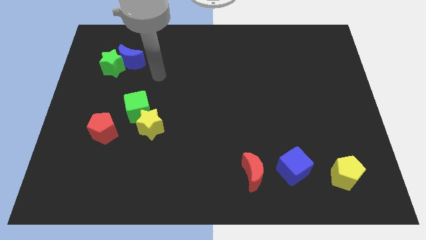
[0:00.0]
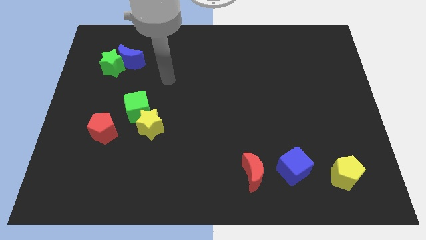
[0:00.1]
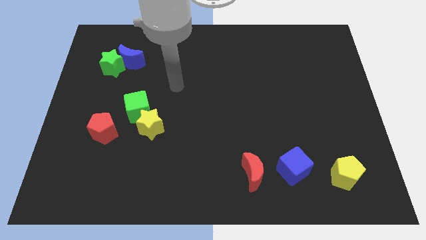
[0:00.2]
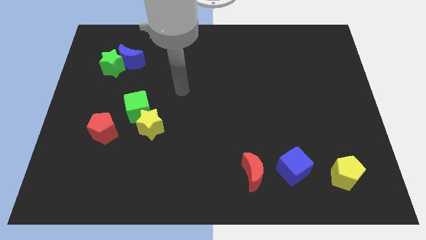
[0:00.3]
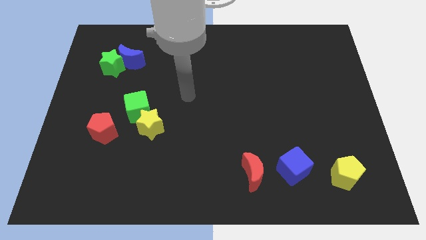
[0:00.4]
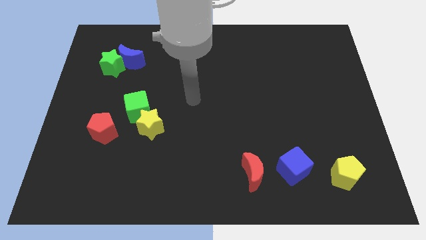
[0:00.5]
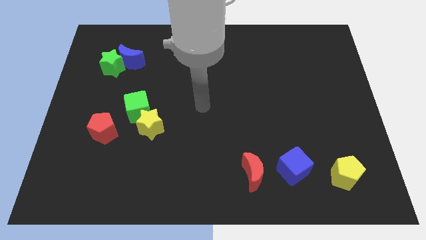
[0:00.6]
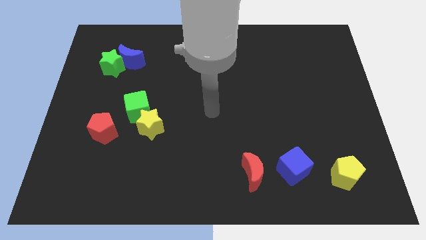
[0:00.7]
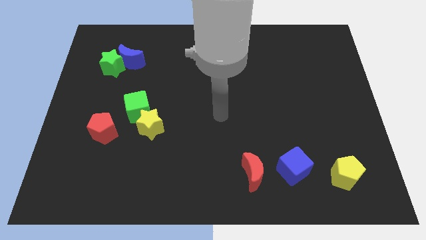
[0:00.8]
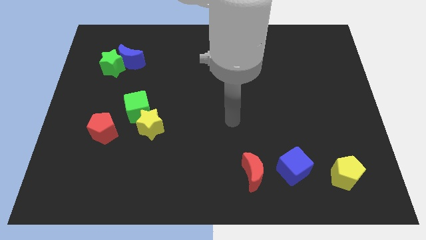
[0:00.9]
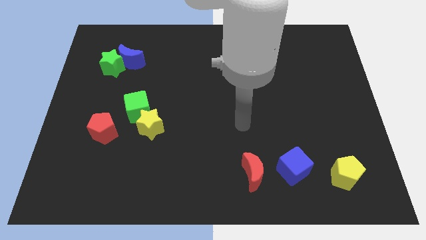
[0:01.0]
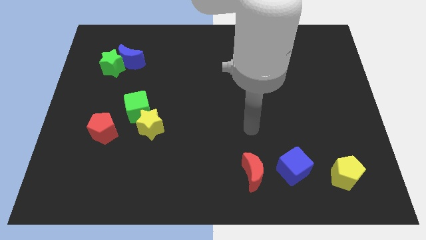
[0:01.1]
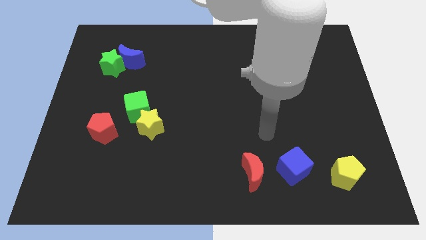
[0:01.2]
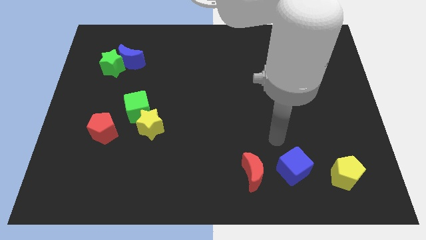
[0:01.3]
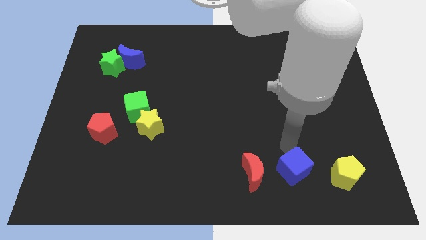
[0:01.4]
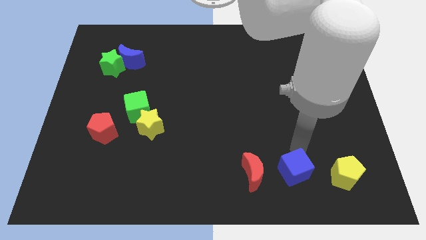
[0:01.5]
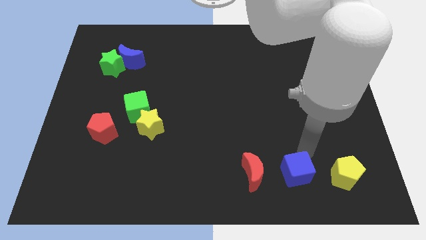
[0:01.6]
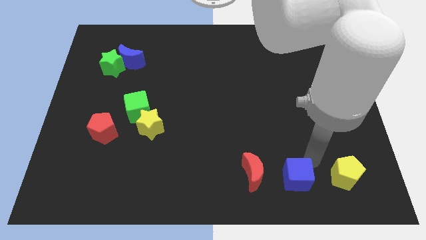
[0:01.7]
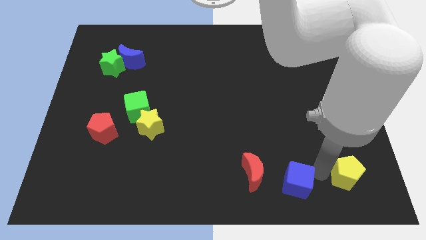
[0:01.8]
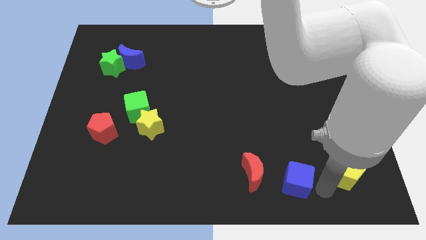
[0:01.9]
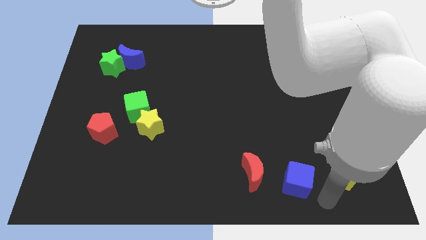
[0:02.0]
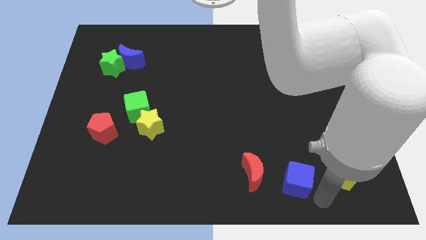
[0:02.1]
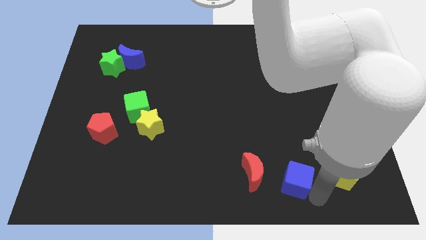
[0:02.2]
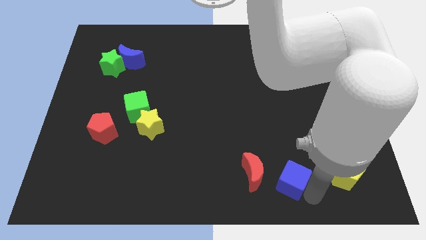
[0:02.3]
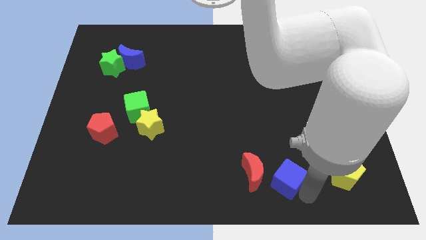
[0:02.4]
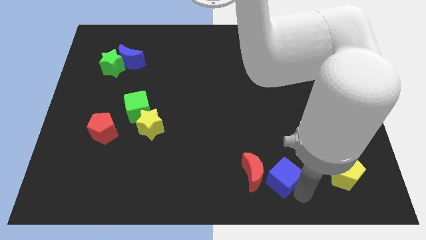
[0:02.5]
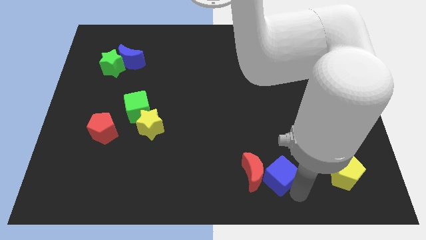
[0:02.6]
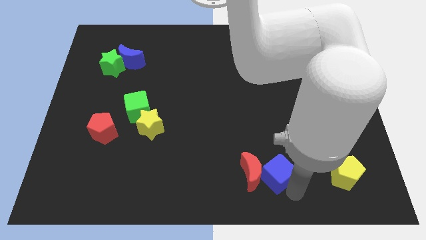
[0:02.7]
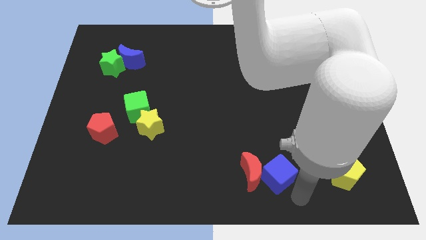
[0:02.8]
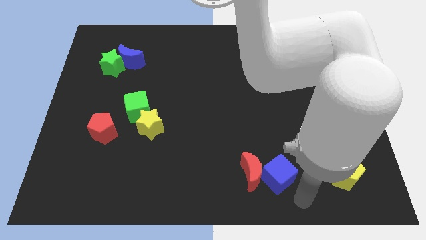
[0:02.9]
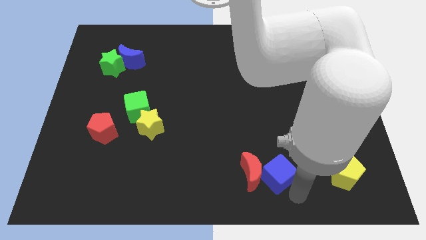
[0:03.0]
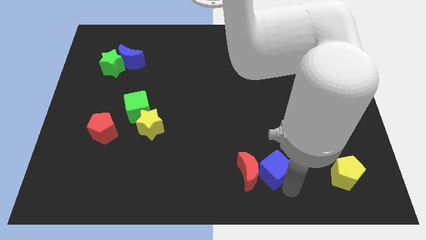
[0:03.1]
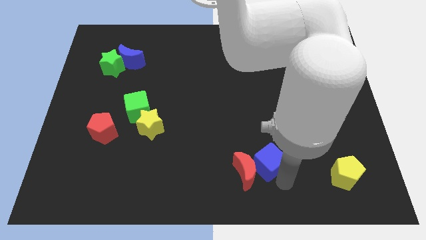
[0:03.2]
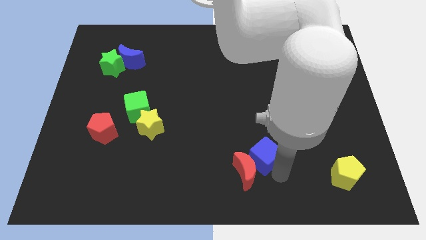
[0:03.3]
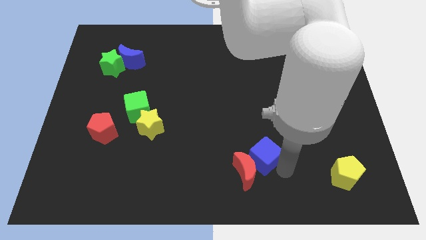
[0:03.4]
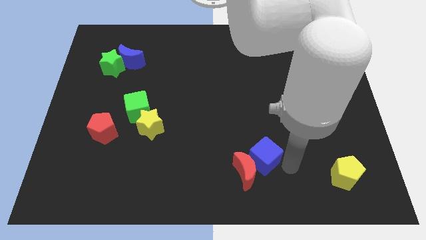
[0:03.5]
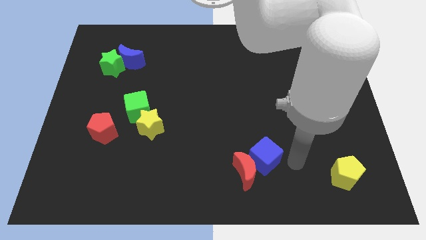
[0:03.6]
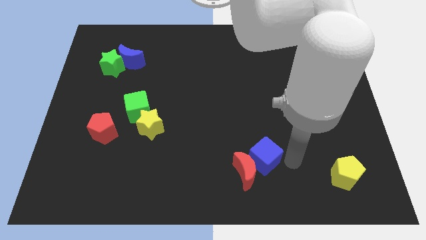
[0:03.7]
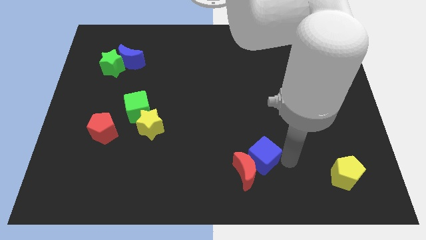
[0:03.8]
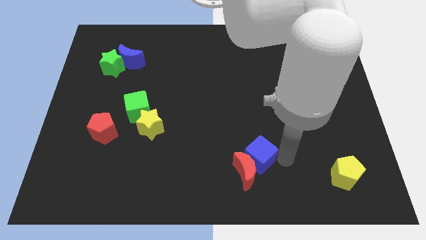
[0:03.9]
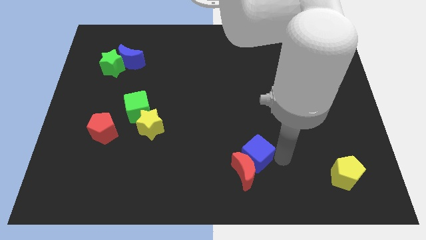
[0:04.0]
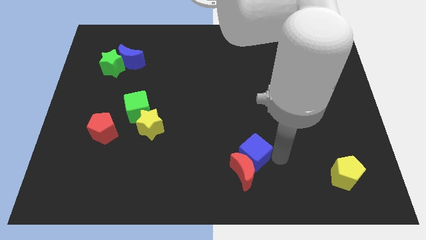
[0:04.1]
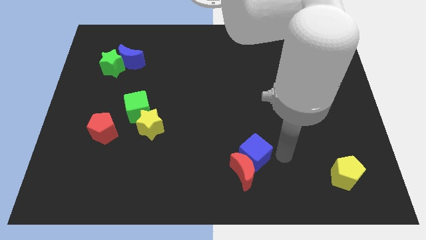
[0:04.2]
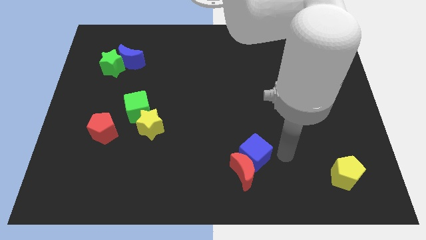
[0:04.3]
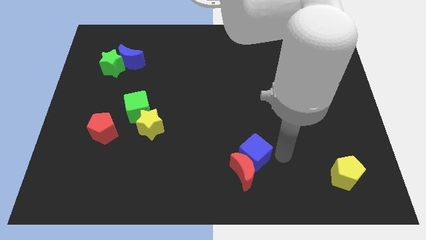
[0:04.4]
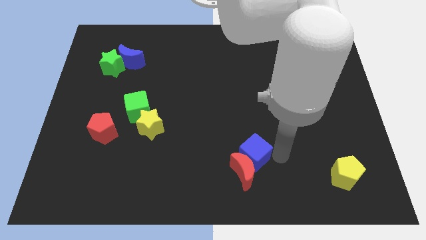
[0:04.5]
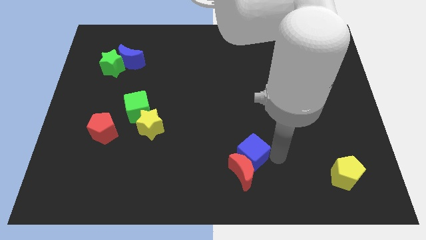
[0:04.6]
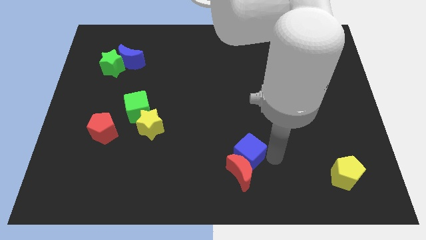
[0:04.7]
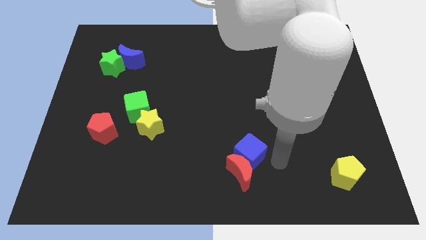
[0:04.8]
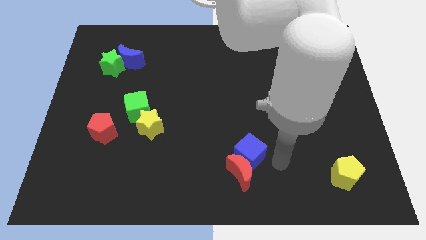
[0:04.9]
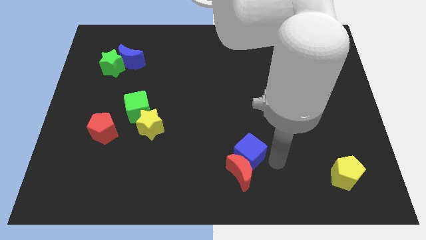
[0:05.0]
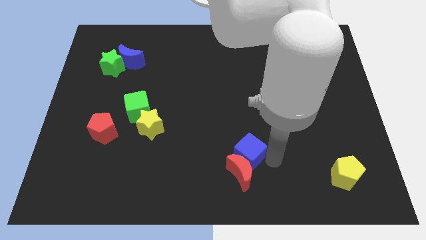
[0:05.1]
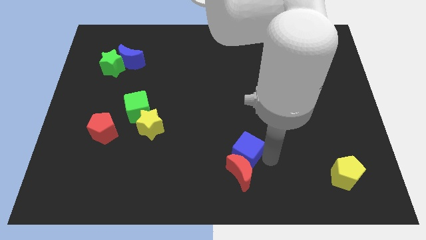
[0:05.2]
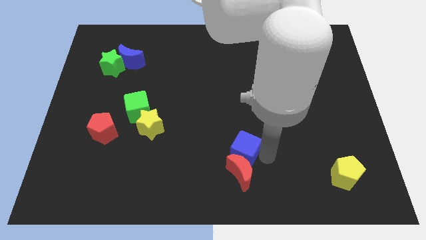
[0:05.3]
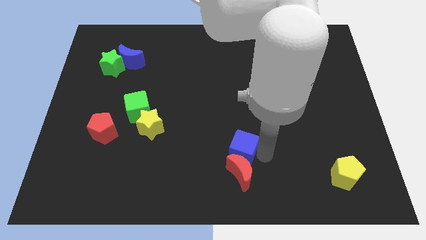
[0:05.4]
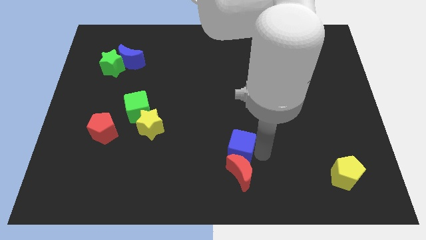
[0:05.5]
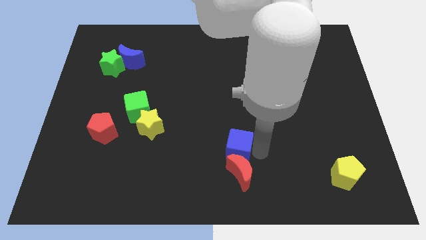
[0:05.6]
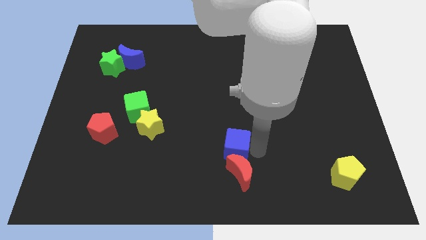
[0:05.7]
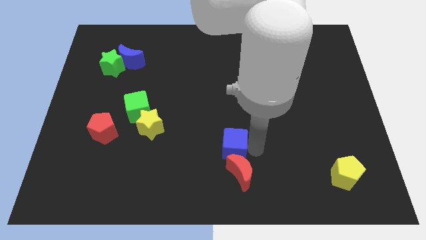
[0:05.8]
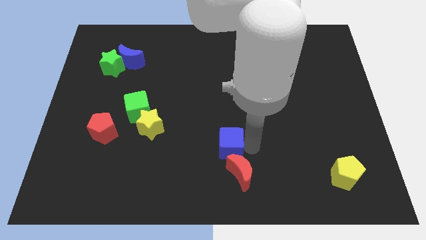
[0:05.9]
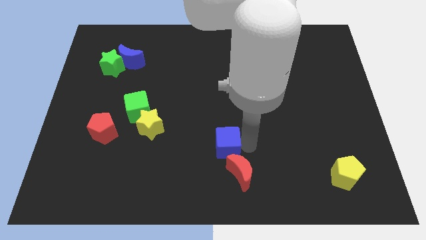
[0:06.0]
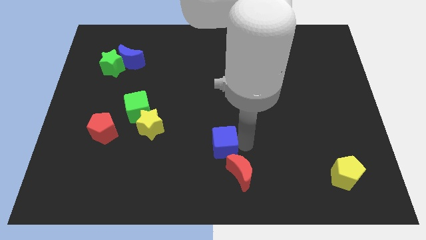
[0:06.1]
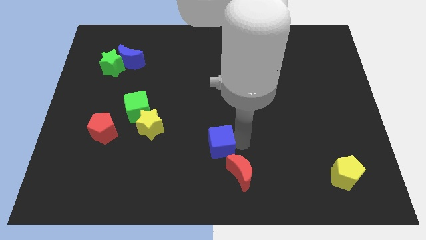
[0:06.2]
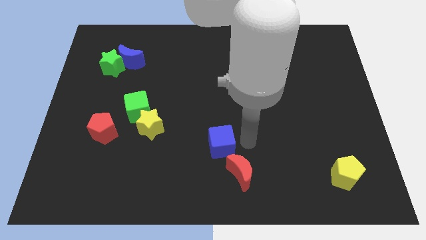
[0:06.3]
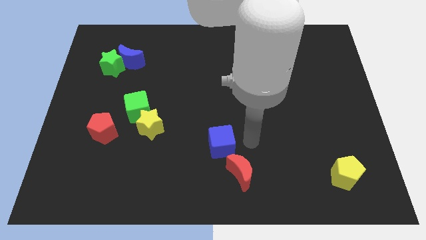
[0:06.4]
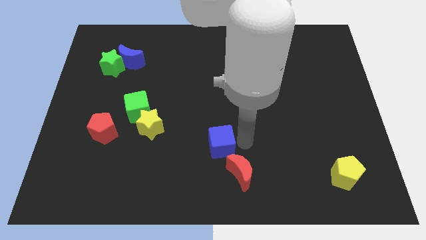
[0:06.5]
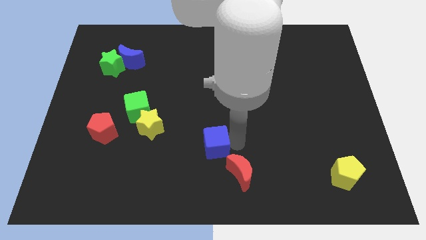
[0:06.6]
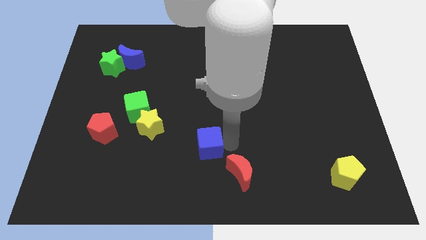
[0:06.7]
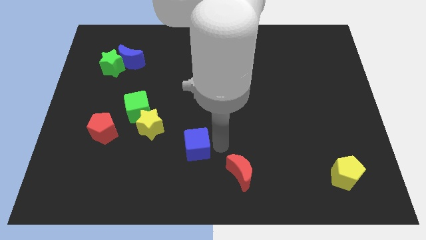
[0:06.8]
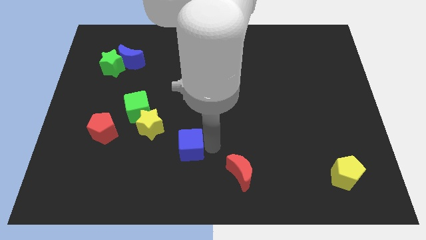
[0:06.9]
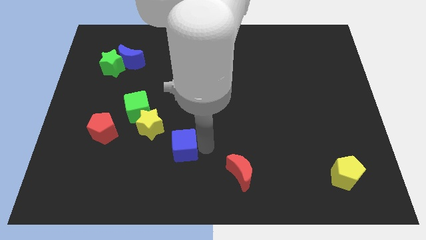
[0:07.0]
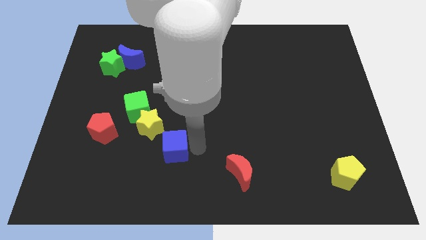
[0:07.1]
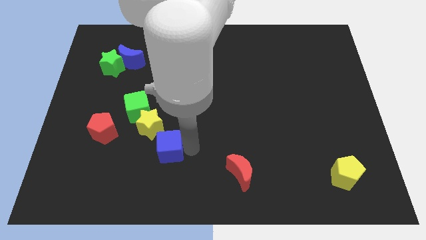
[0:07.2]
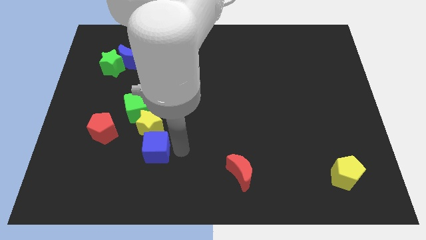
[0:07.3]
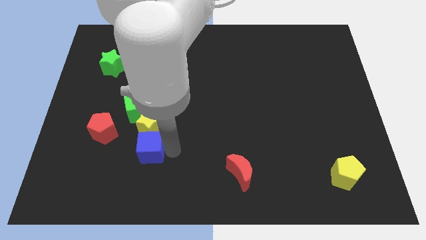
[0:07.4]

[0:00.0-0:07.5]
move the blue cube to the bottom left side of the yellow star

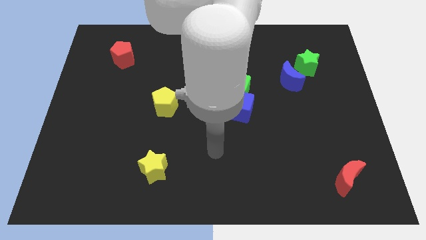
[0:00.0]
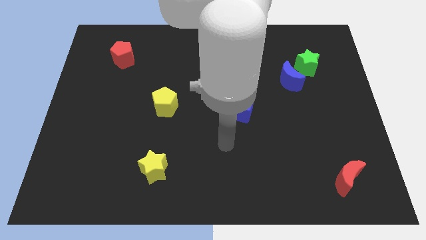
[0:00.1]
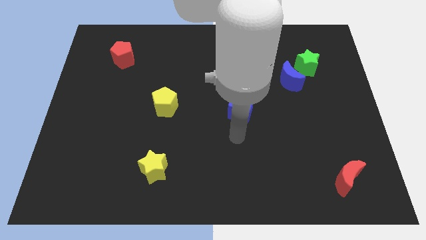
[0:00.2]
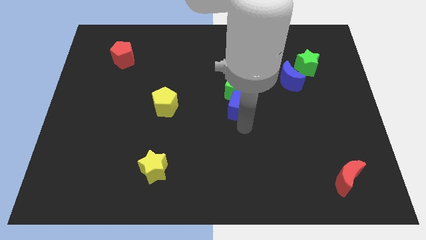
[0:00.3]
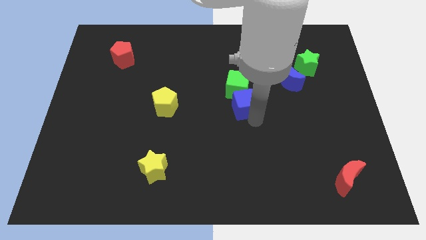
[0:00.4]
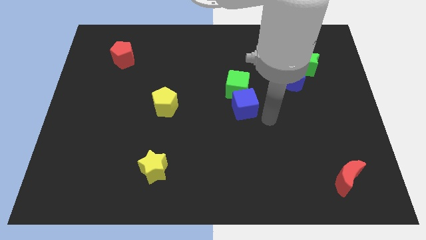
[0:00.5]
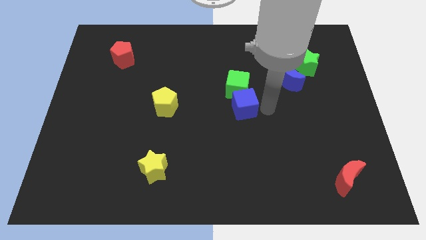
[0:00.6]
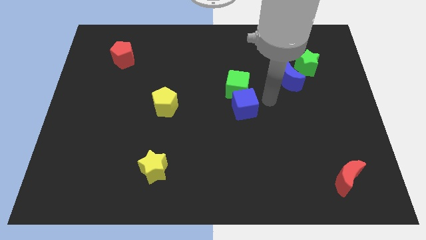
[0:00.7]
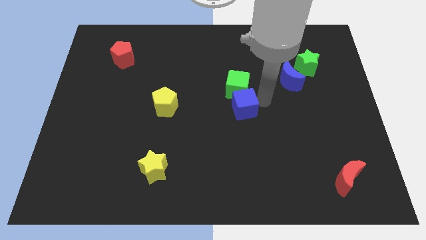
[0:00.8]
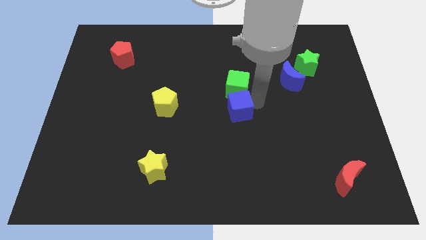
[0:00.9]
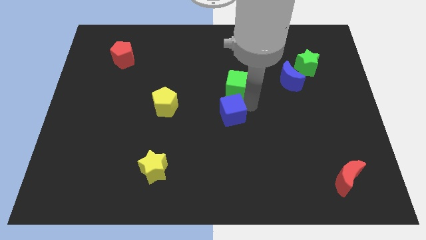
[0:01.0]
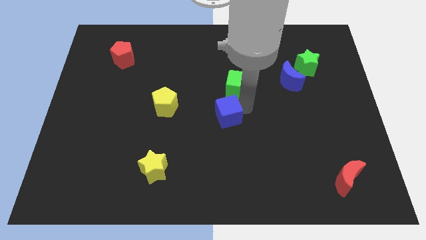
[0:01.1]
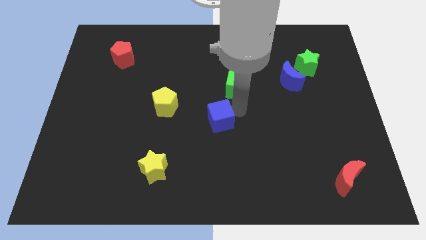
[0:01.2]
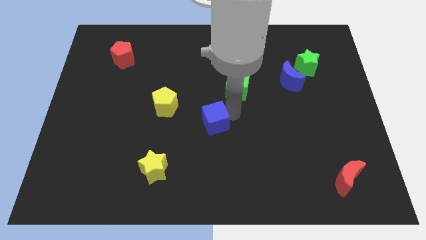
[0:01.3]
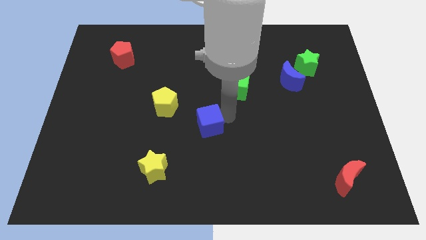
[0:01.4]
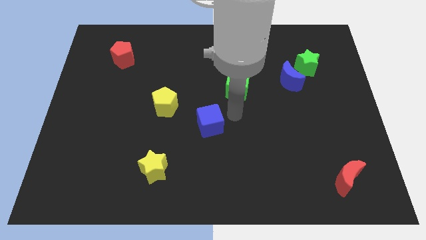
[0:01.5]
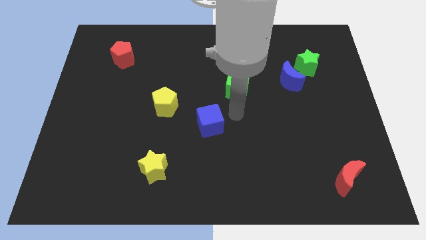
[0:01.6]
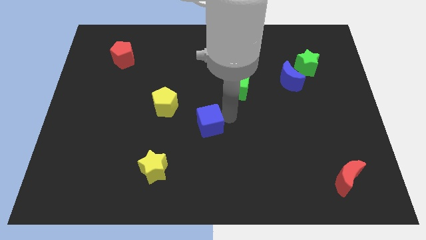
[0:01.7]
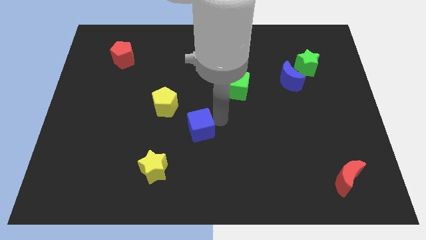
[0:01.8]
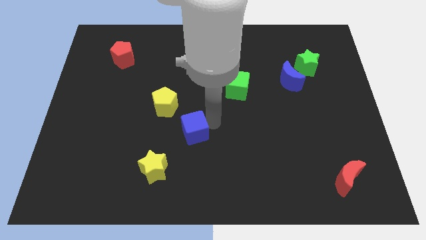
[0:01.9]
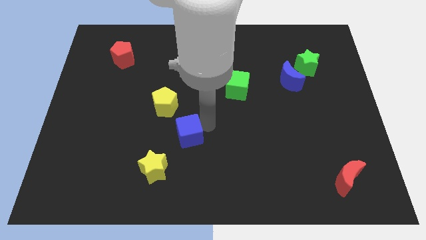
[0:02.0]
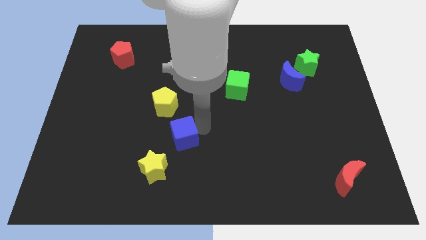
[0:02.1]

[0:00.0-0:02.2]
move the blue cube below the yellow pentagon
